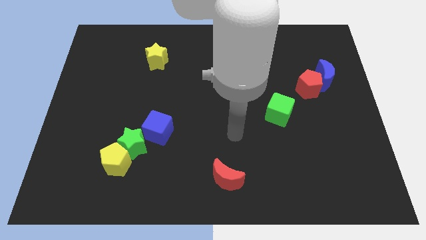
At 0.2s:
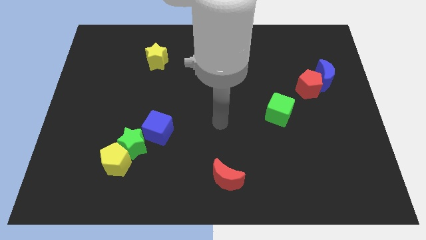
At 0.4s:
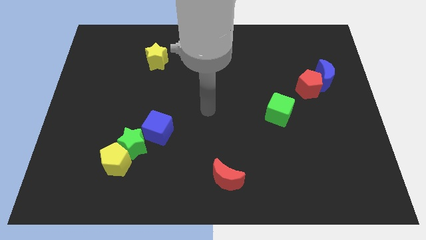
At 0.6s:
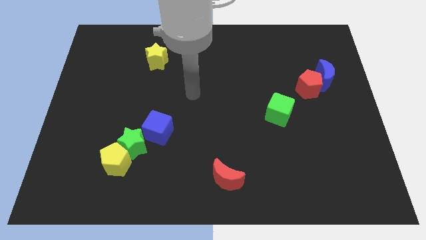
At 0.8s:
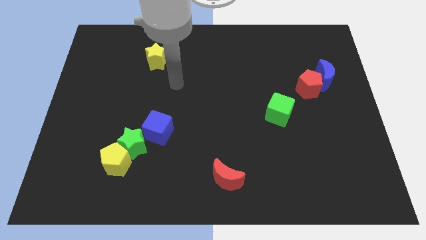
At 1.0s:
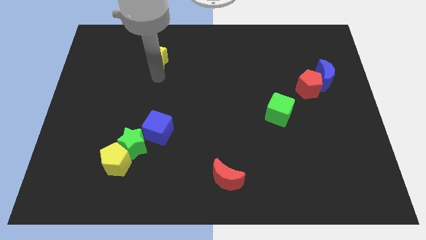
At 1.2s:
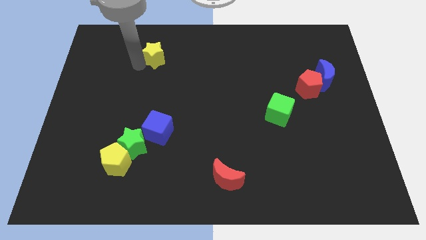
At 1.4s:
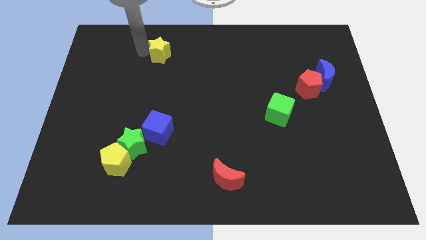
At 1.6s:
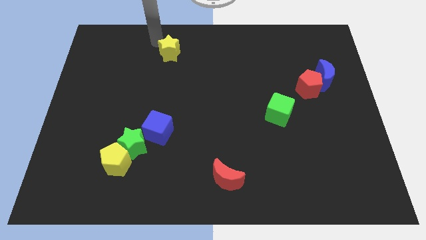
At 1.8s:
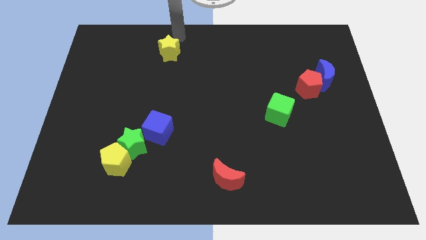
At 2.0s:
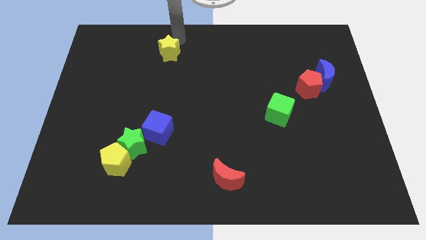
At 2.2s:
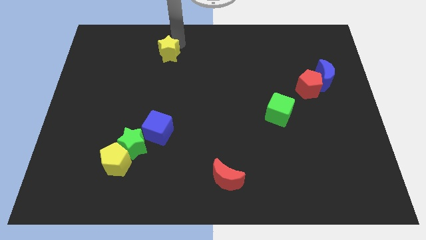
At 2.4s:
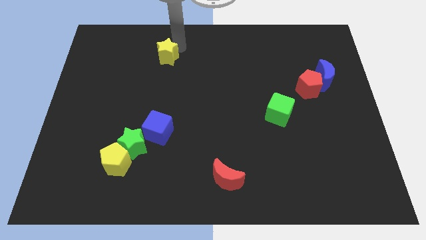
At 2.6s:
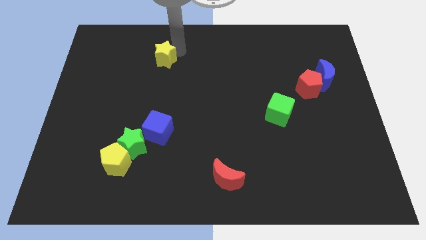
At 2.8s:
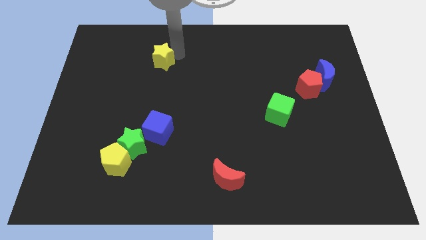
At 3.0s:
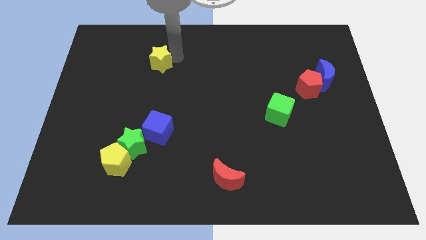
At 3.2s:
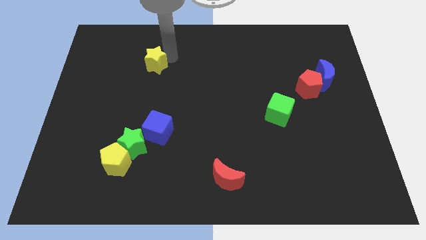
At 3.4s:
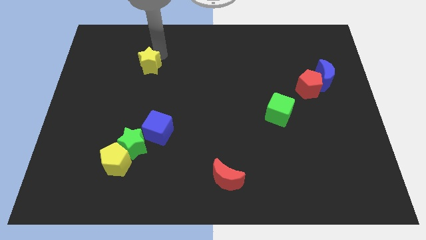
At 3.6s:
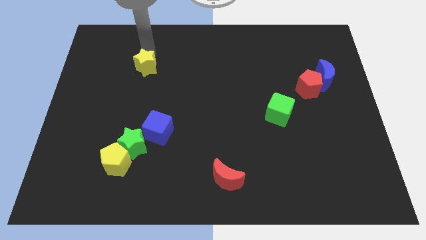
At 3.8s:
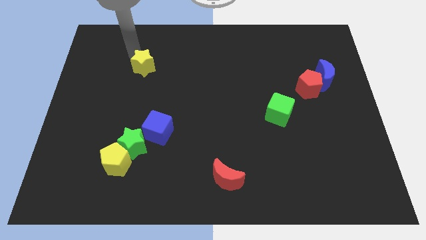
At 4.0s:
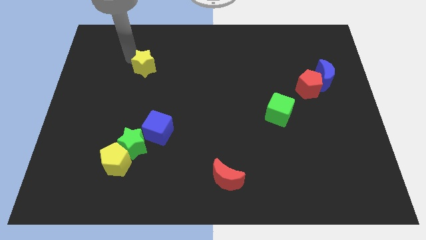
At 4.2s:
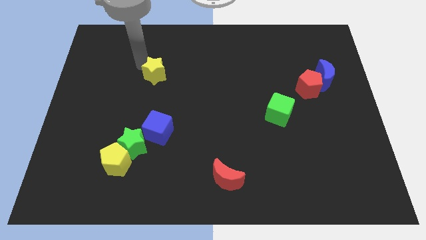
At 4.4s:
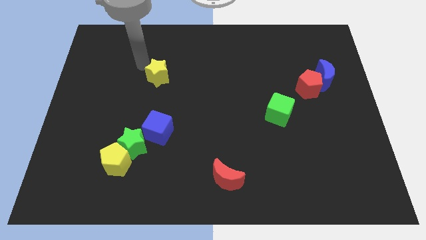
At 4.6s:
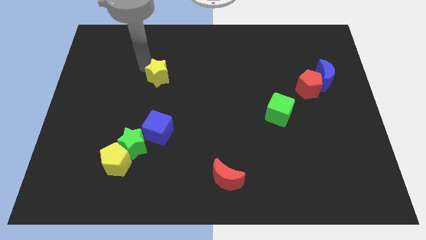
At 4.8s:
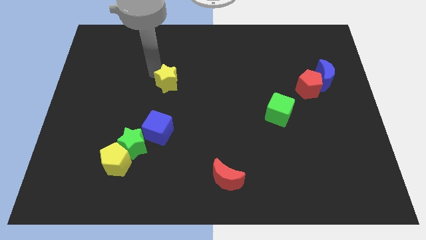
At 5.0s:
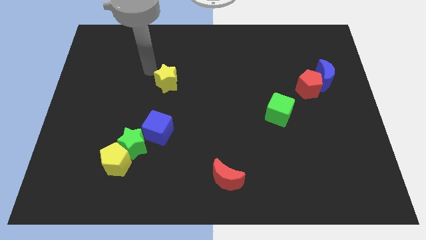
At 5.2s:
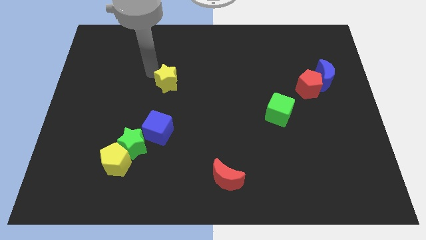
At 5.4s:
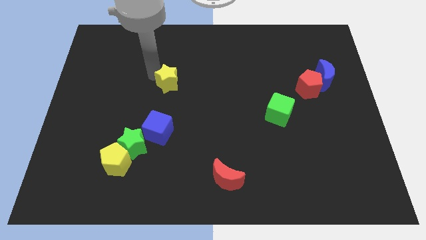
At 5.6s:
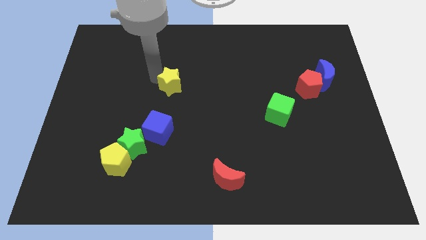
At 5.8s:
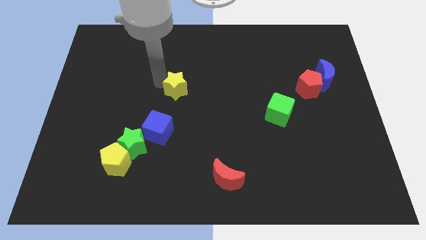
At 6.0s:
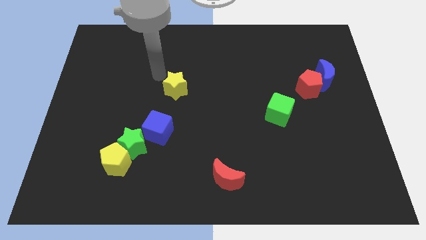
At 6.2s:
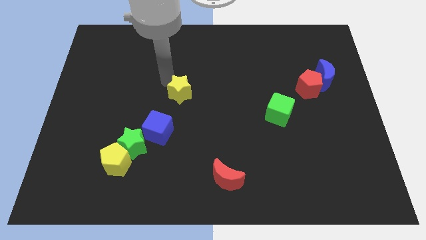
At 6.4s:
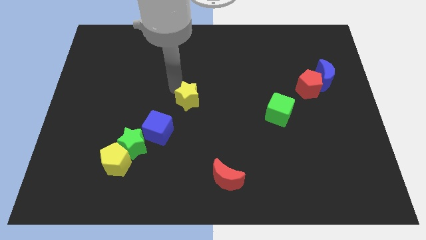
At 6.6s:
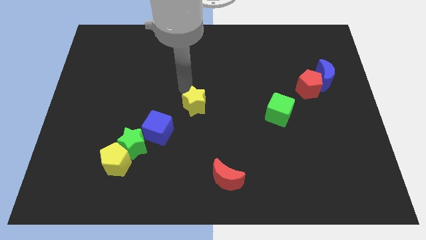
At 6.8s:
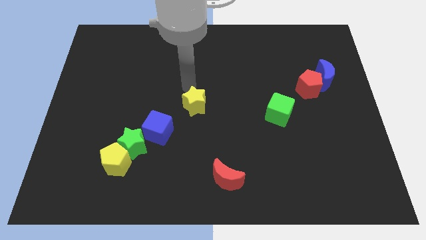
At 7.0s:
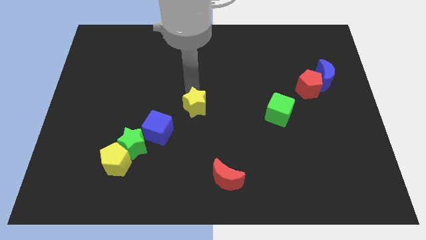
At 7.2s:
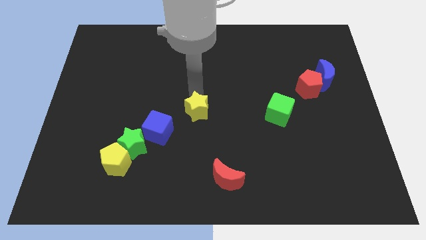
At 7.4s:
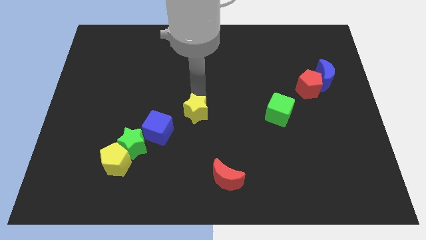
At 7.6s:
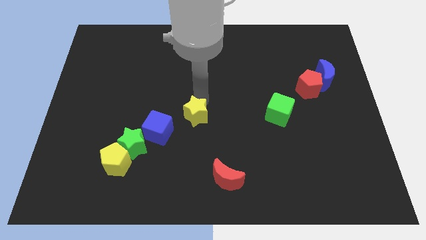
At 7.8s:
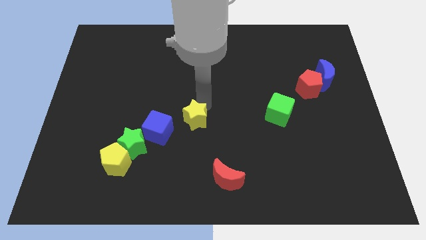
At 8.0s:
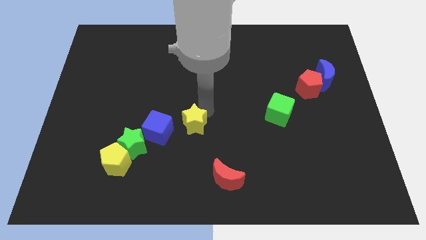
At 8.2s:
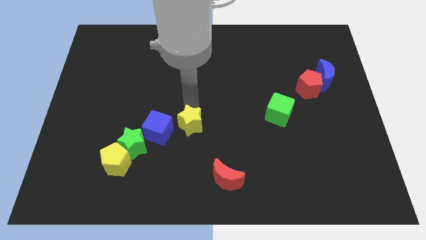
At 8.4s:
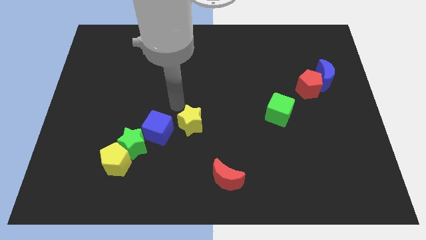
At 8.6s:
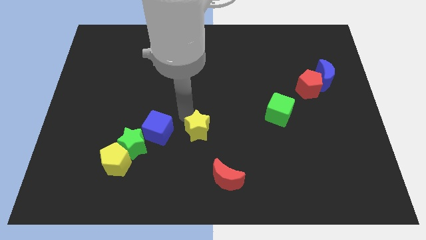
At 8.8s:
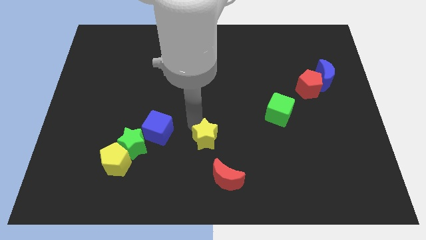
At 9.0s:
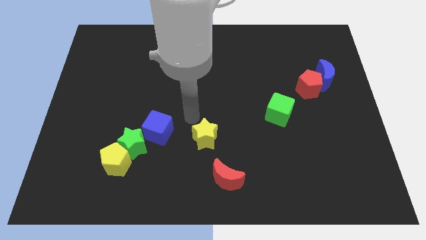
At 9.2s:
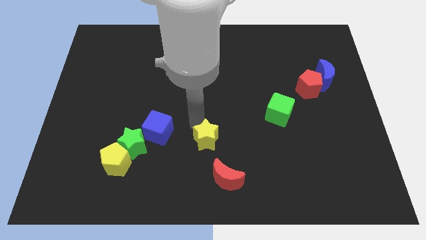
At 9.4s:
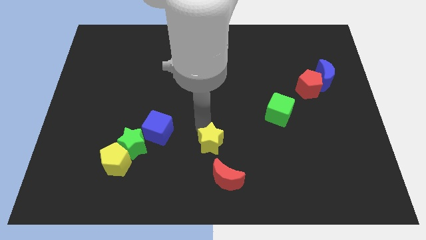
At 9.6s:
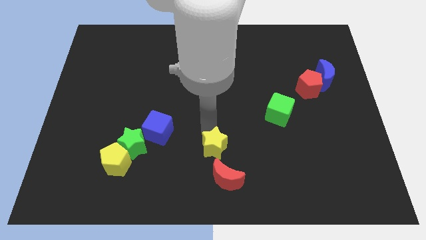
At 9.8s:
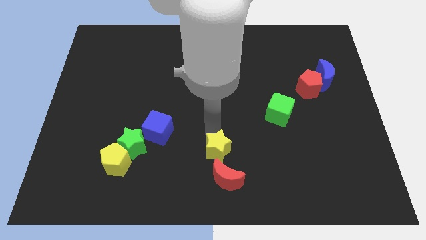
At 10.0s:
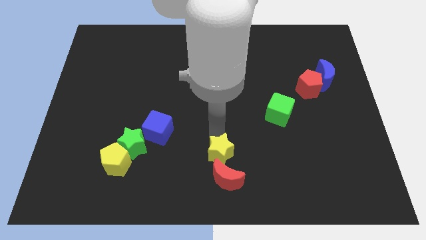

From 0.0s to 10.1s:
move the yellow star towards the red moon

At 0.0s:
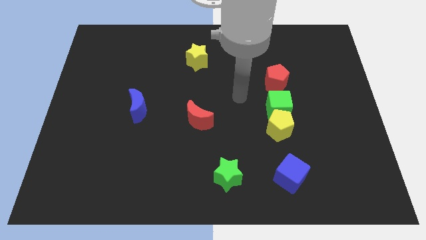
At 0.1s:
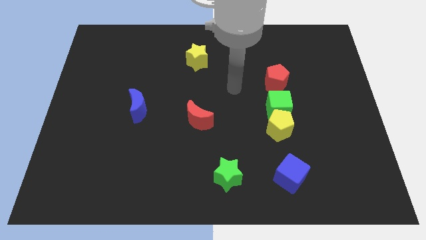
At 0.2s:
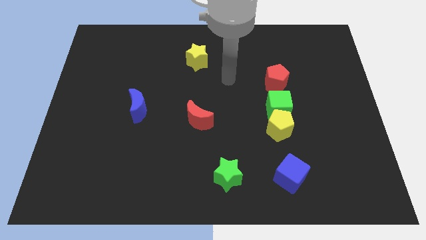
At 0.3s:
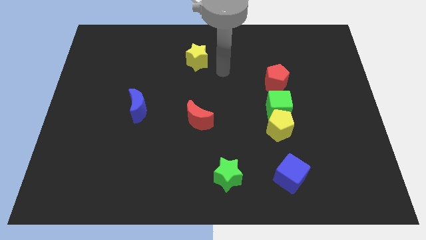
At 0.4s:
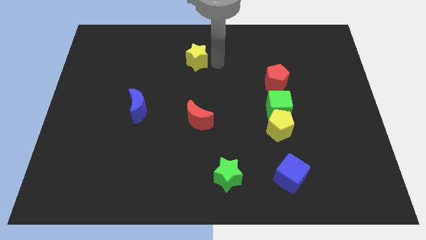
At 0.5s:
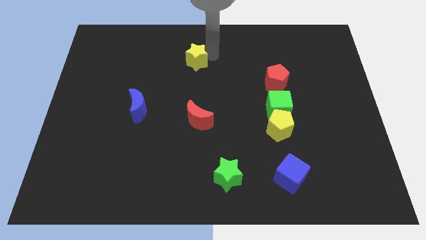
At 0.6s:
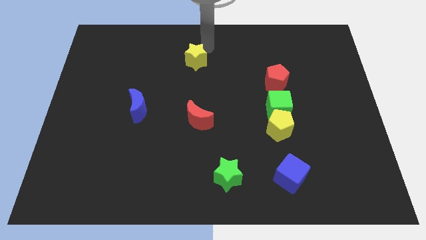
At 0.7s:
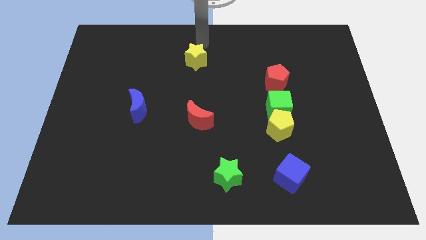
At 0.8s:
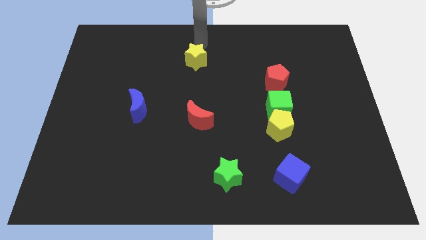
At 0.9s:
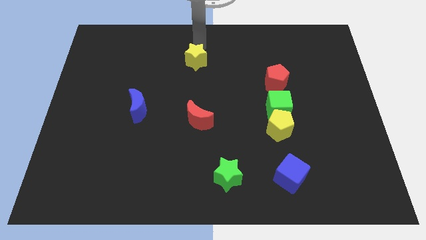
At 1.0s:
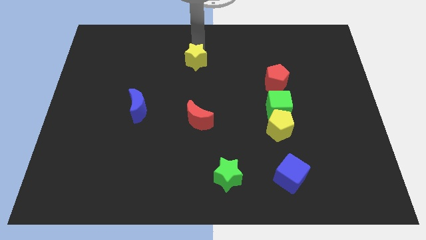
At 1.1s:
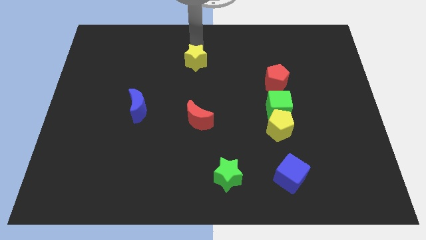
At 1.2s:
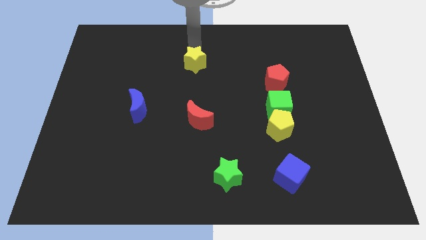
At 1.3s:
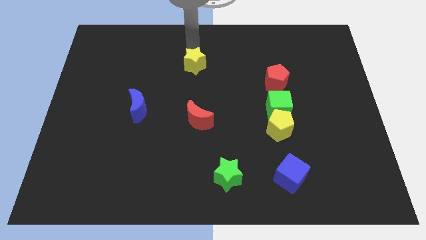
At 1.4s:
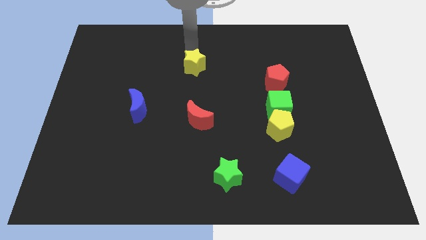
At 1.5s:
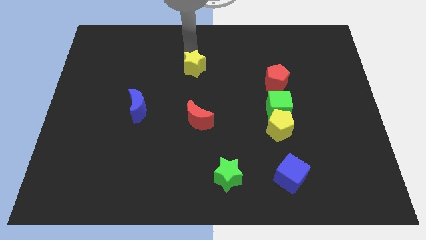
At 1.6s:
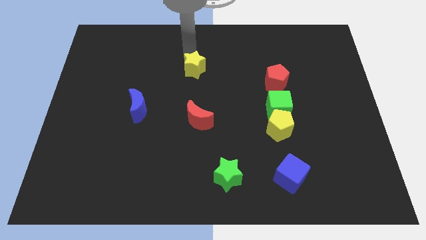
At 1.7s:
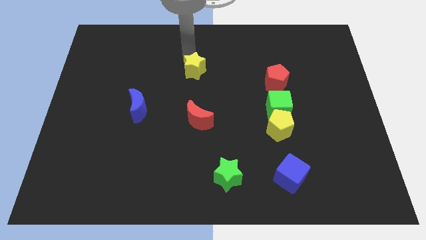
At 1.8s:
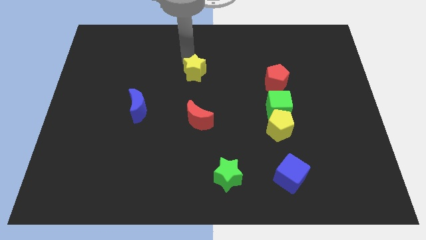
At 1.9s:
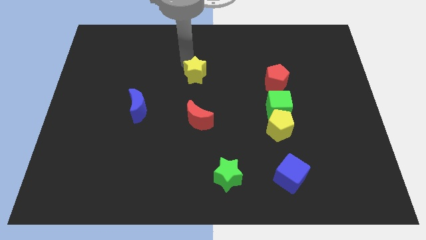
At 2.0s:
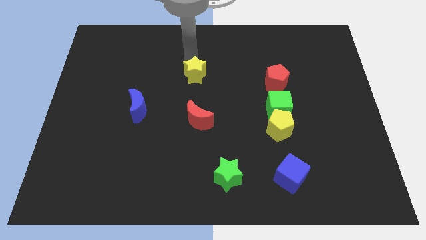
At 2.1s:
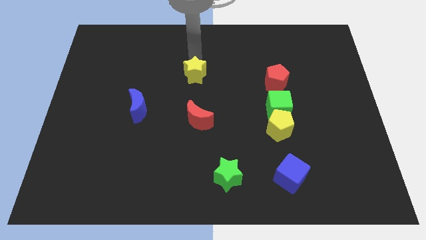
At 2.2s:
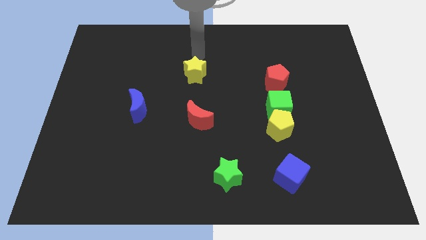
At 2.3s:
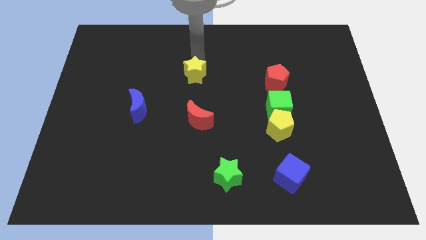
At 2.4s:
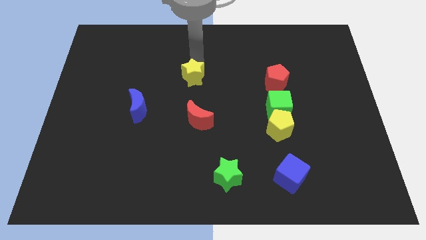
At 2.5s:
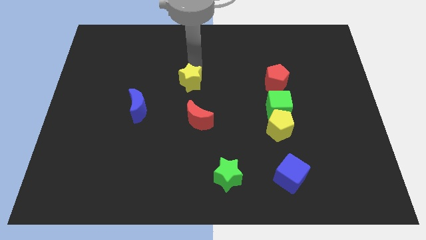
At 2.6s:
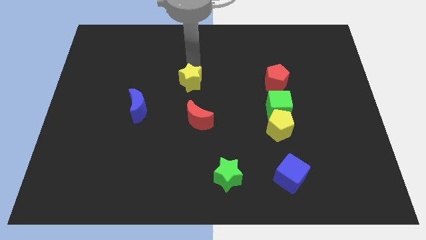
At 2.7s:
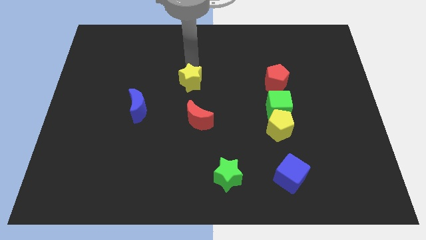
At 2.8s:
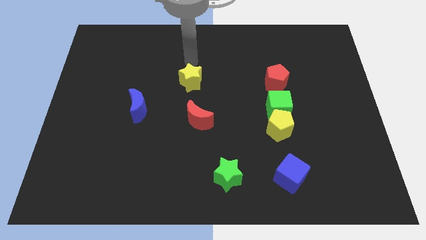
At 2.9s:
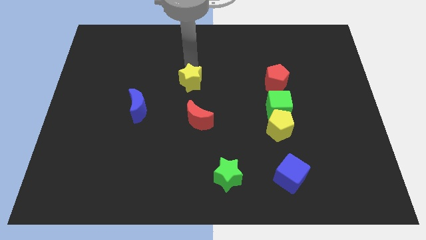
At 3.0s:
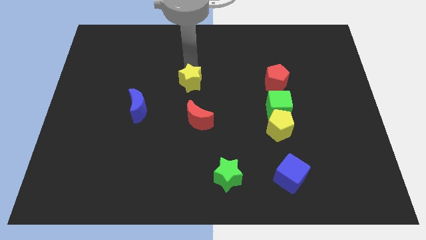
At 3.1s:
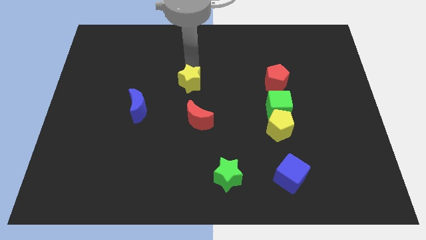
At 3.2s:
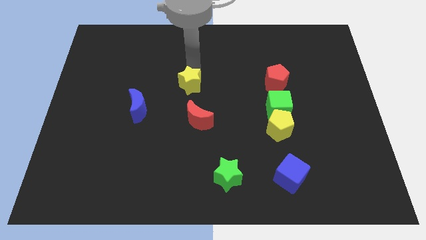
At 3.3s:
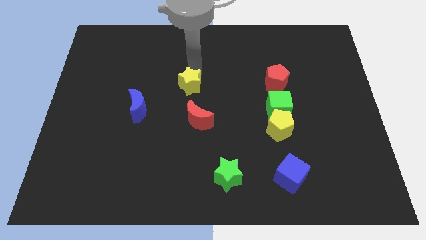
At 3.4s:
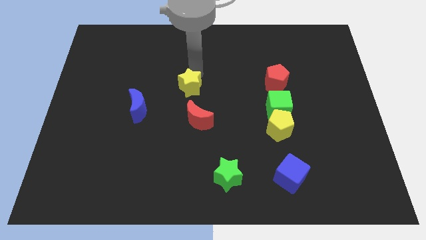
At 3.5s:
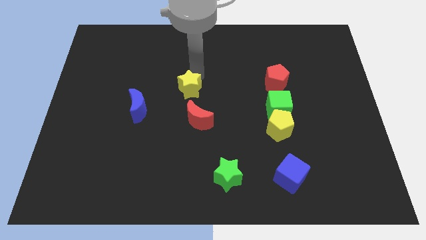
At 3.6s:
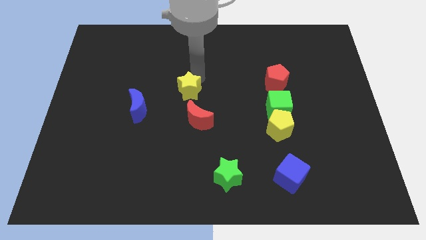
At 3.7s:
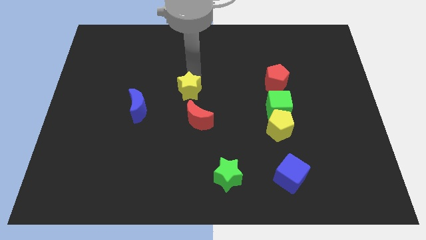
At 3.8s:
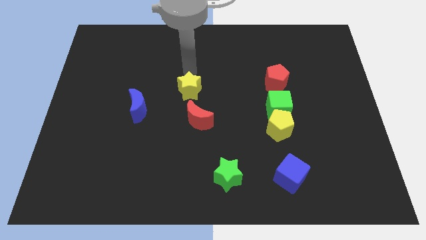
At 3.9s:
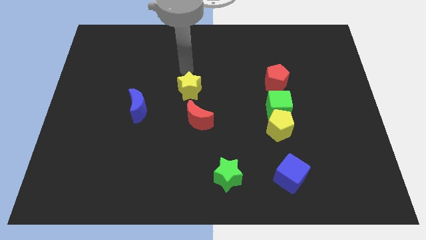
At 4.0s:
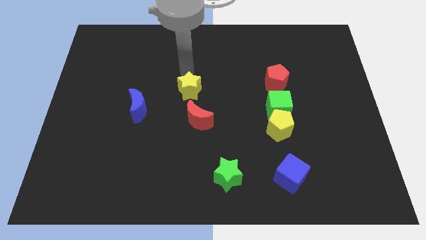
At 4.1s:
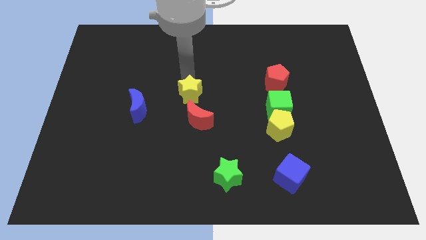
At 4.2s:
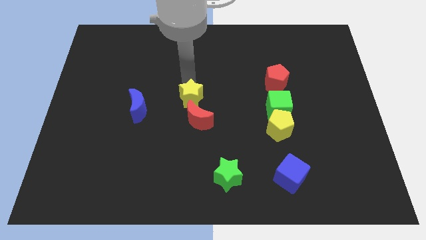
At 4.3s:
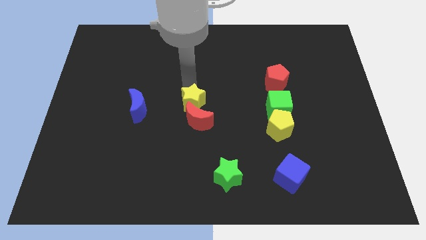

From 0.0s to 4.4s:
put the yellow star to the red moon
